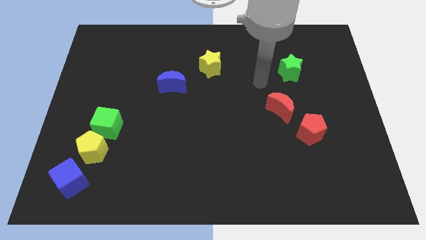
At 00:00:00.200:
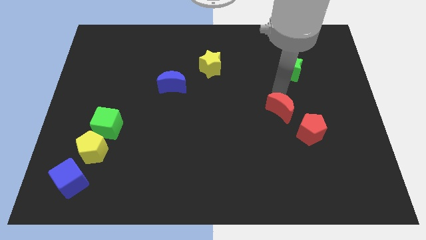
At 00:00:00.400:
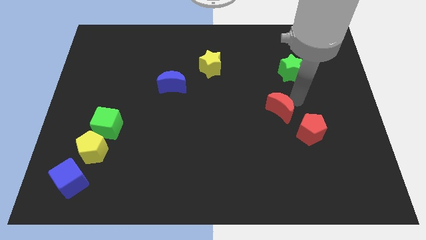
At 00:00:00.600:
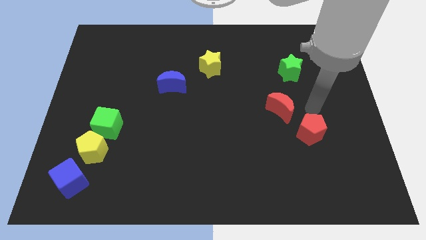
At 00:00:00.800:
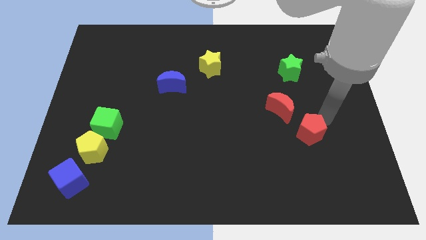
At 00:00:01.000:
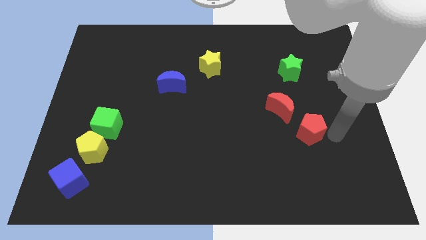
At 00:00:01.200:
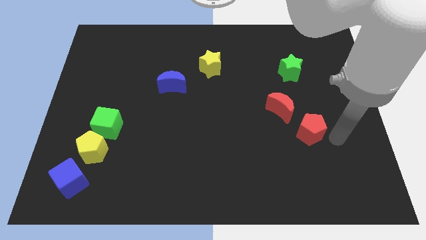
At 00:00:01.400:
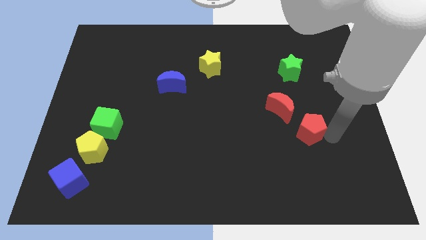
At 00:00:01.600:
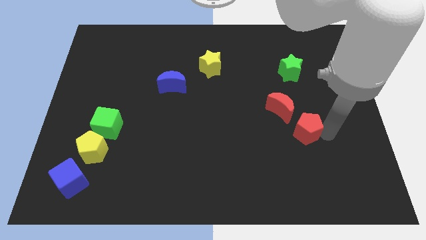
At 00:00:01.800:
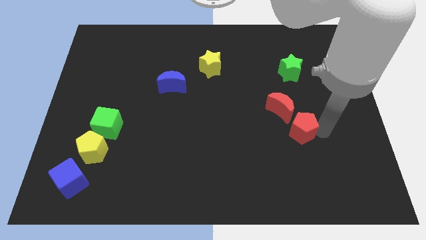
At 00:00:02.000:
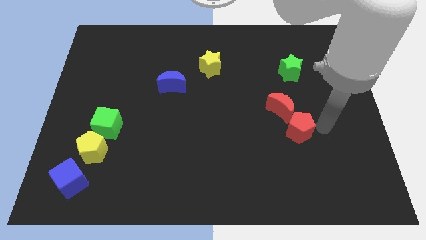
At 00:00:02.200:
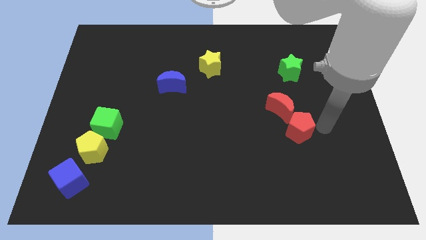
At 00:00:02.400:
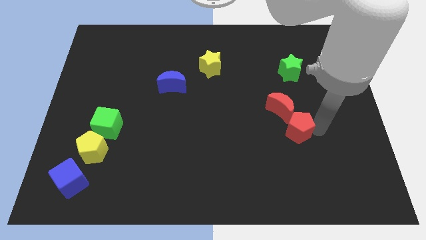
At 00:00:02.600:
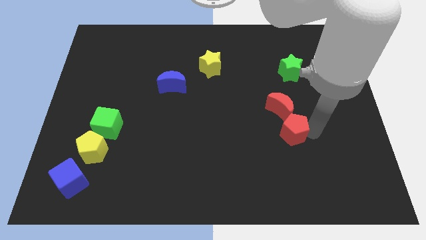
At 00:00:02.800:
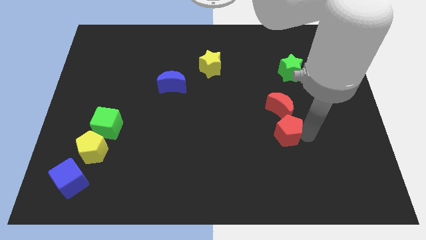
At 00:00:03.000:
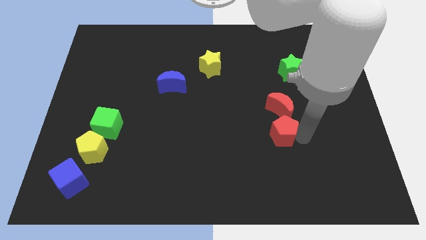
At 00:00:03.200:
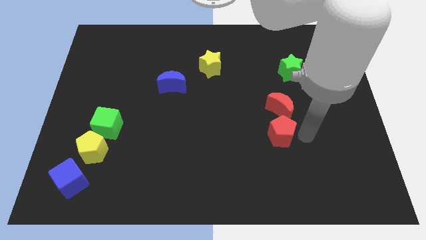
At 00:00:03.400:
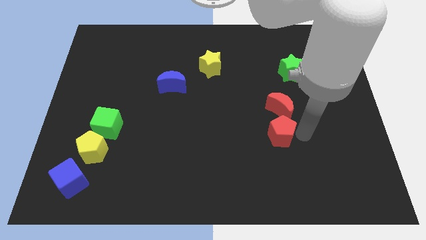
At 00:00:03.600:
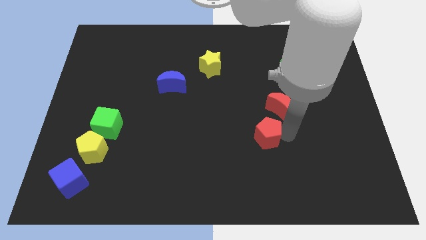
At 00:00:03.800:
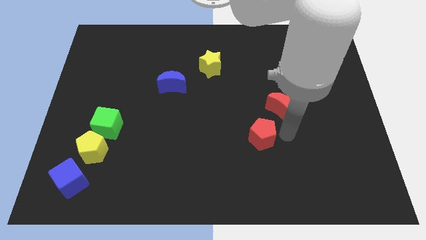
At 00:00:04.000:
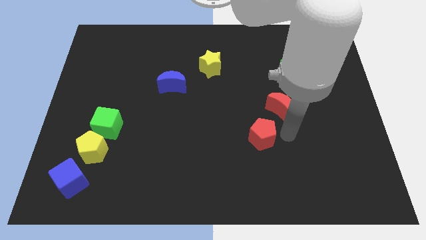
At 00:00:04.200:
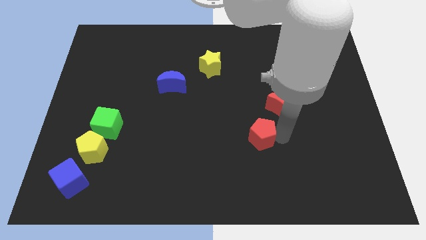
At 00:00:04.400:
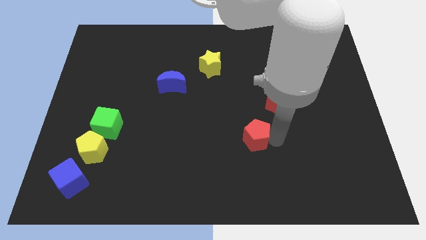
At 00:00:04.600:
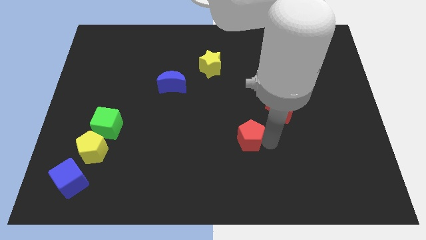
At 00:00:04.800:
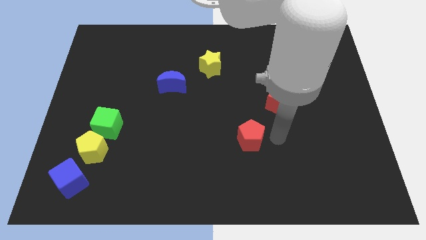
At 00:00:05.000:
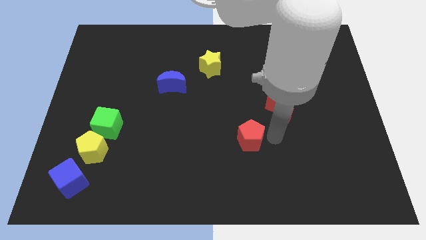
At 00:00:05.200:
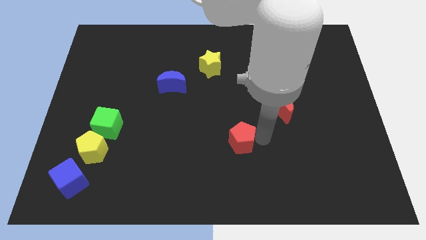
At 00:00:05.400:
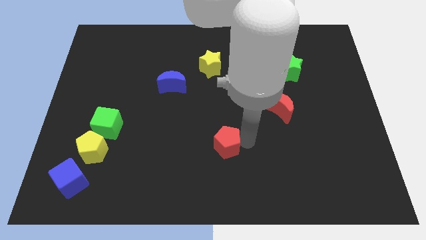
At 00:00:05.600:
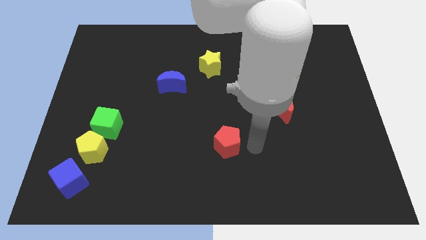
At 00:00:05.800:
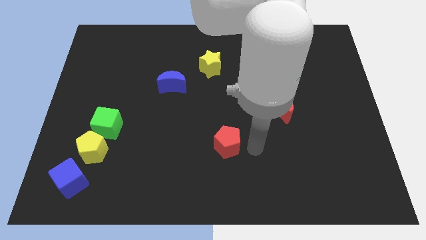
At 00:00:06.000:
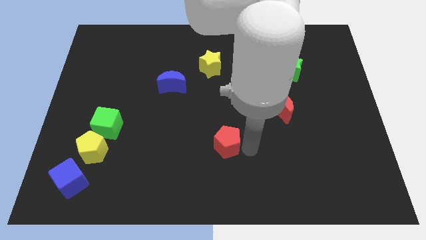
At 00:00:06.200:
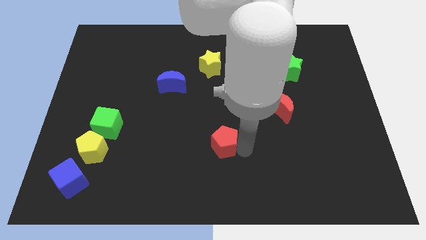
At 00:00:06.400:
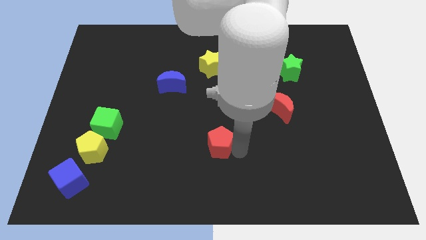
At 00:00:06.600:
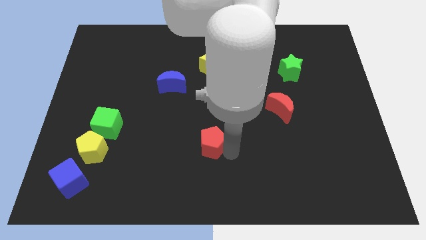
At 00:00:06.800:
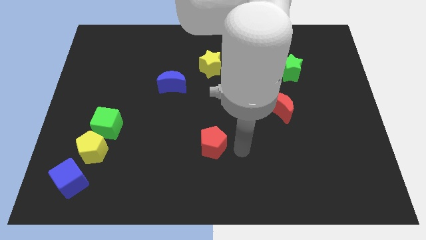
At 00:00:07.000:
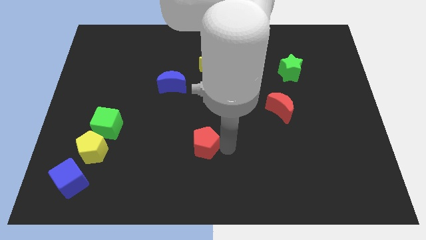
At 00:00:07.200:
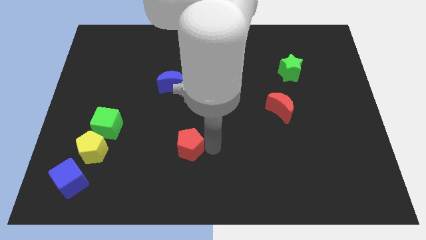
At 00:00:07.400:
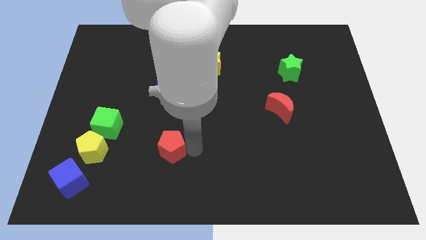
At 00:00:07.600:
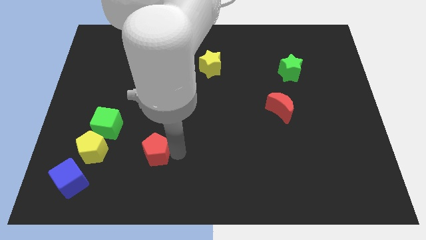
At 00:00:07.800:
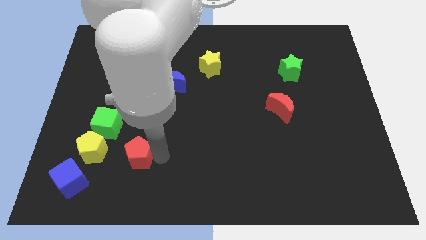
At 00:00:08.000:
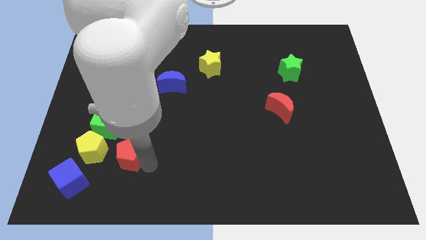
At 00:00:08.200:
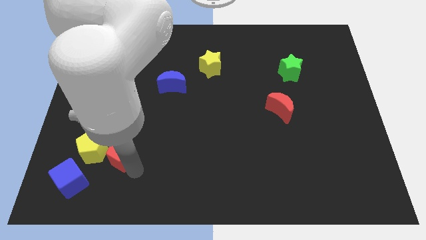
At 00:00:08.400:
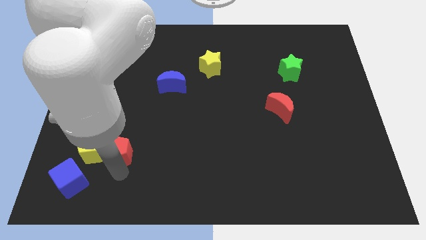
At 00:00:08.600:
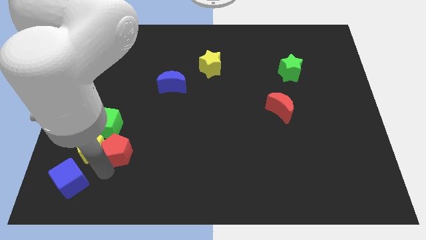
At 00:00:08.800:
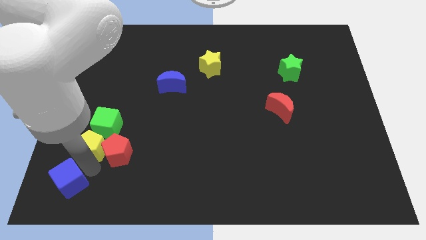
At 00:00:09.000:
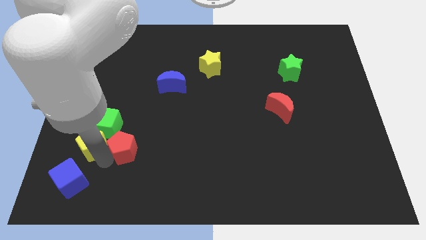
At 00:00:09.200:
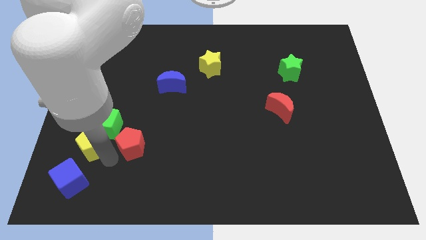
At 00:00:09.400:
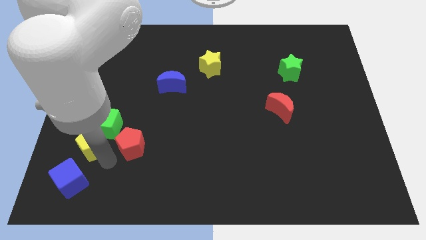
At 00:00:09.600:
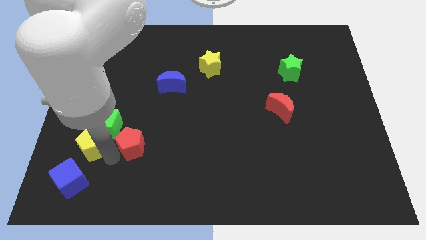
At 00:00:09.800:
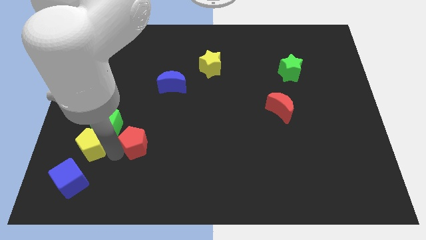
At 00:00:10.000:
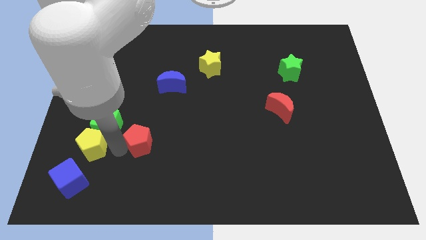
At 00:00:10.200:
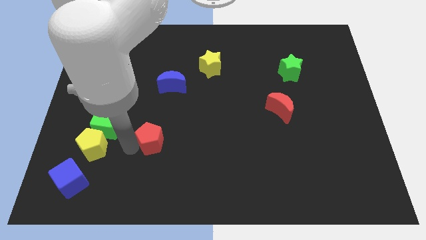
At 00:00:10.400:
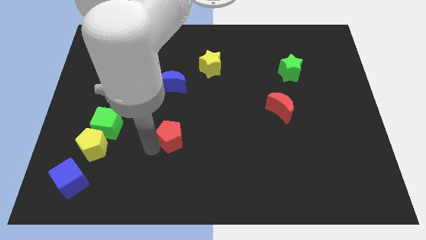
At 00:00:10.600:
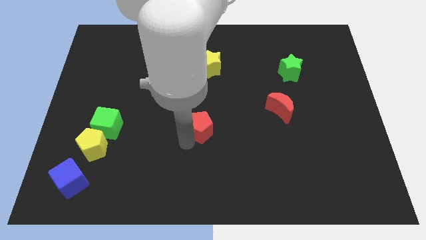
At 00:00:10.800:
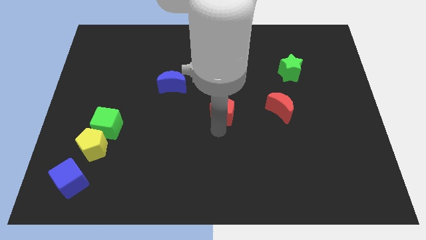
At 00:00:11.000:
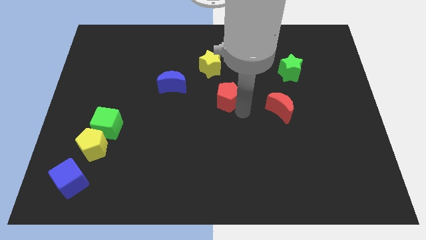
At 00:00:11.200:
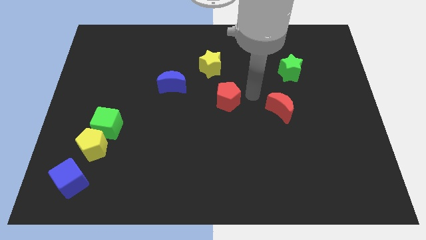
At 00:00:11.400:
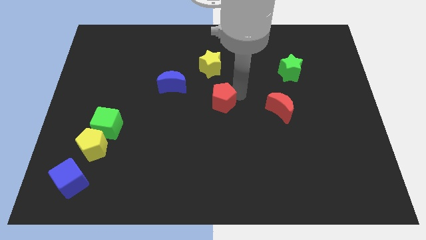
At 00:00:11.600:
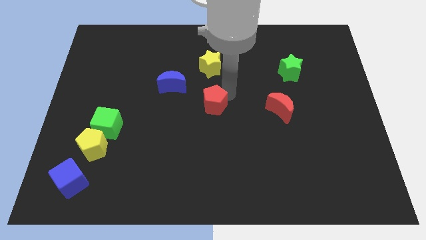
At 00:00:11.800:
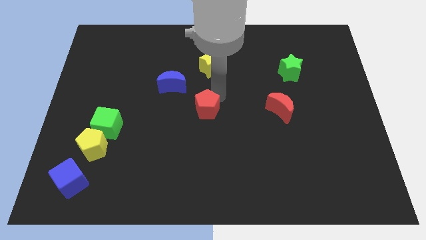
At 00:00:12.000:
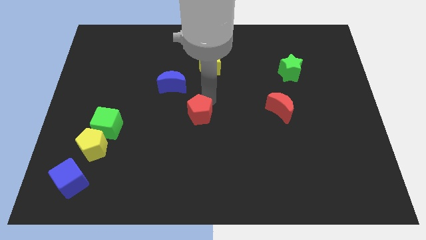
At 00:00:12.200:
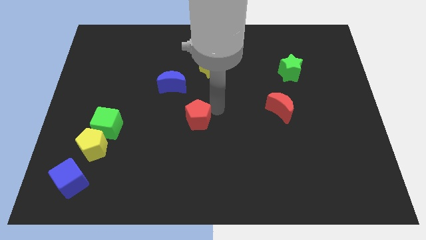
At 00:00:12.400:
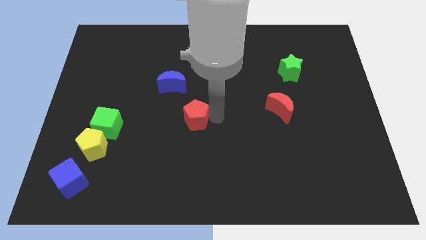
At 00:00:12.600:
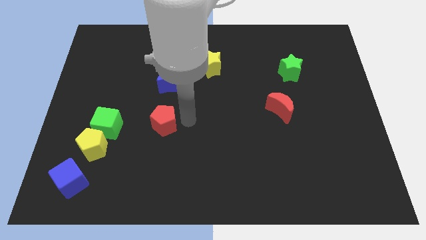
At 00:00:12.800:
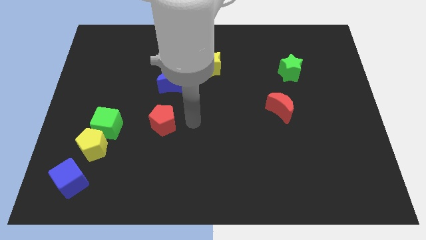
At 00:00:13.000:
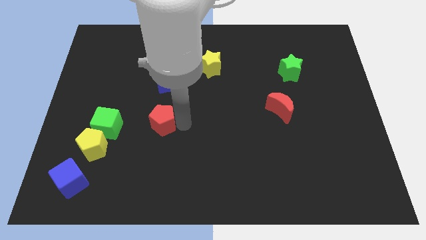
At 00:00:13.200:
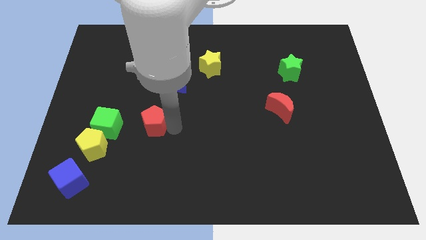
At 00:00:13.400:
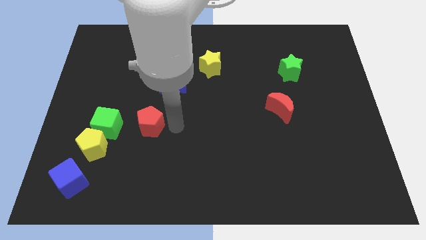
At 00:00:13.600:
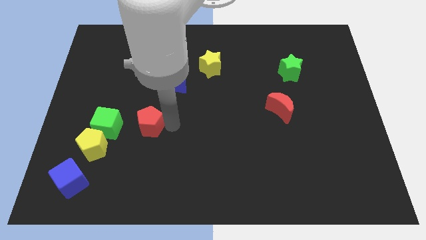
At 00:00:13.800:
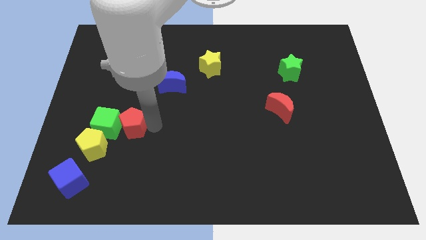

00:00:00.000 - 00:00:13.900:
put the red pentagon to the green cube
